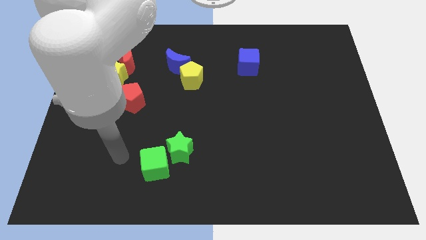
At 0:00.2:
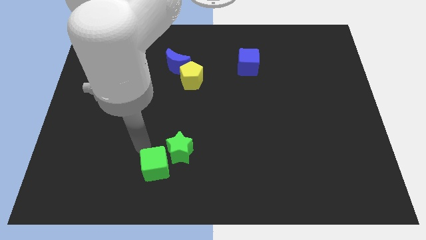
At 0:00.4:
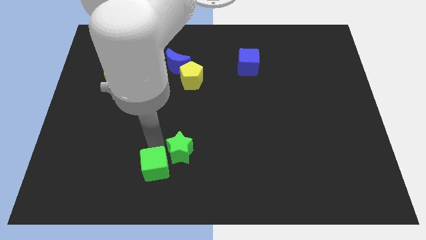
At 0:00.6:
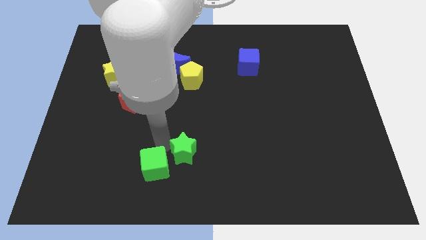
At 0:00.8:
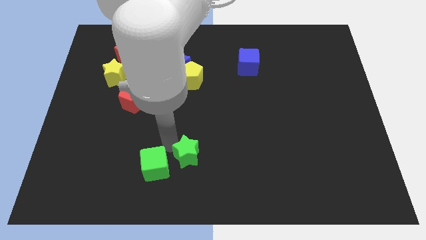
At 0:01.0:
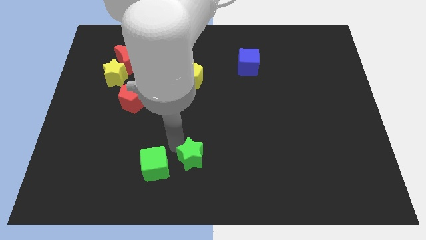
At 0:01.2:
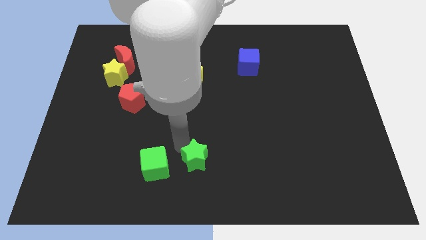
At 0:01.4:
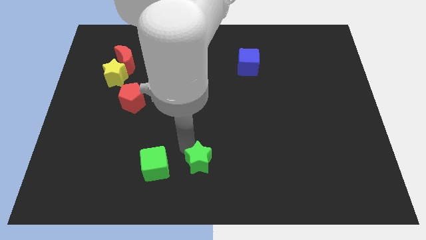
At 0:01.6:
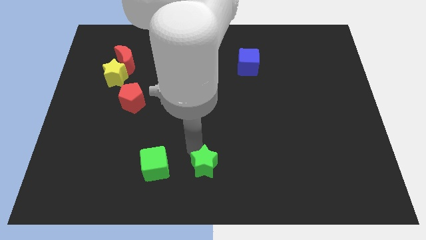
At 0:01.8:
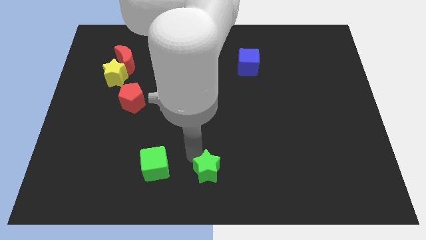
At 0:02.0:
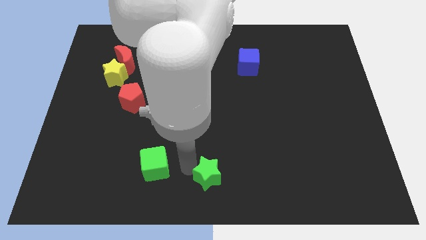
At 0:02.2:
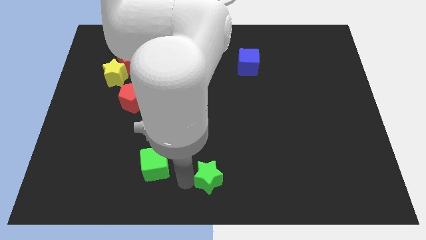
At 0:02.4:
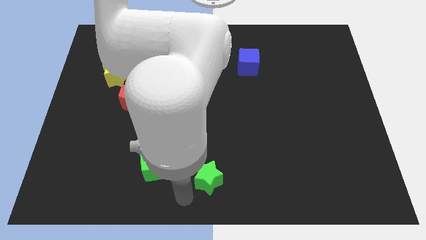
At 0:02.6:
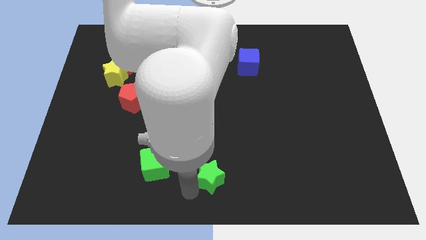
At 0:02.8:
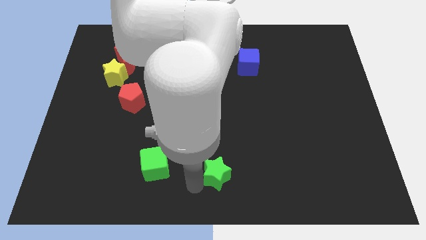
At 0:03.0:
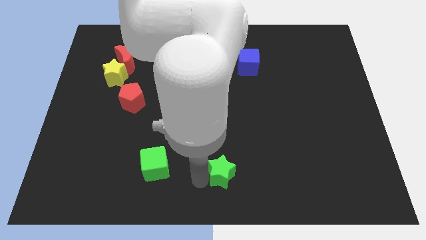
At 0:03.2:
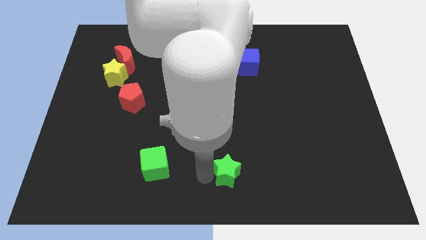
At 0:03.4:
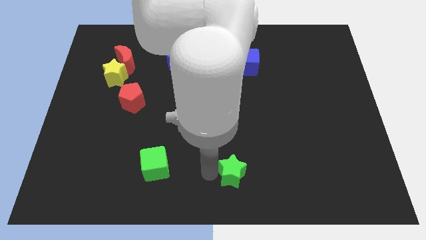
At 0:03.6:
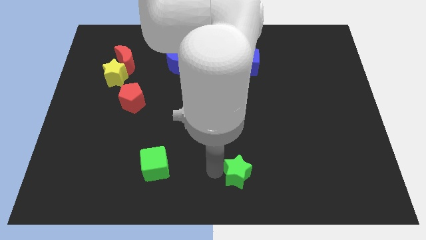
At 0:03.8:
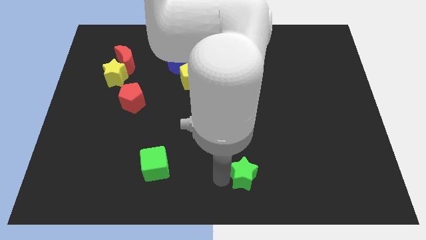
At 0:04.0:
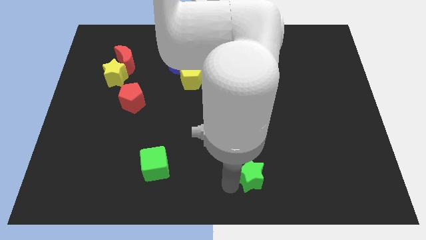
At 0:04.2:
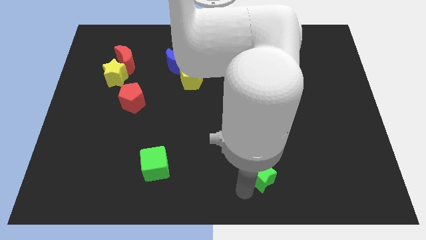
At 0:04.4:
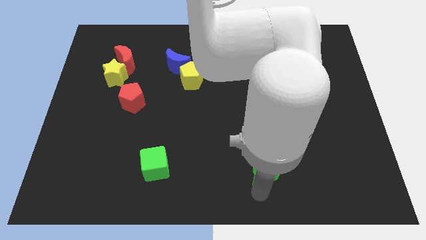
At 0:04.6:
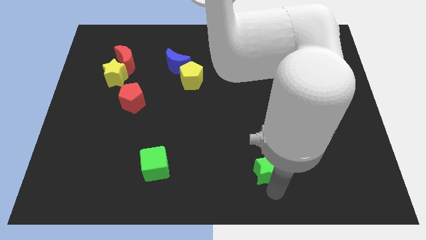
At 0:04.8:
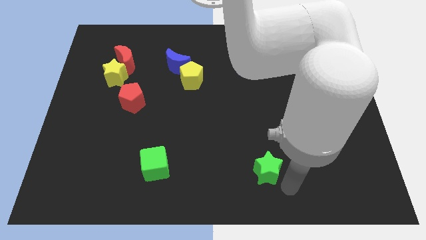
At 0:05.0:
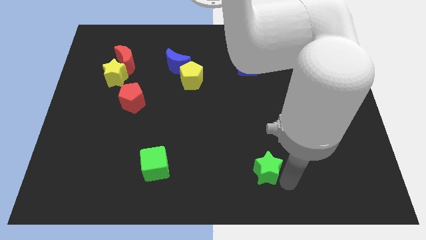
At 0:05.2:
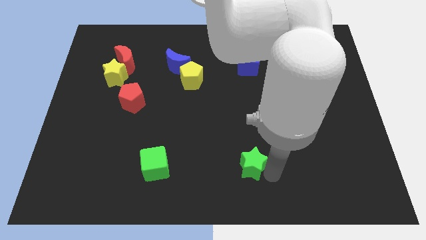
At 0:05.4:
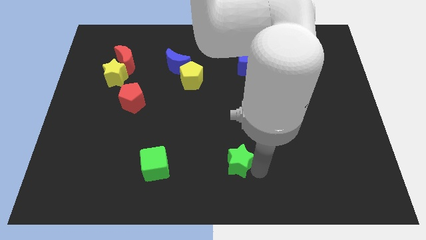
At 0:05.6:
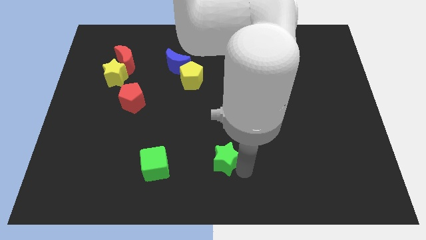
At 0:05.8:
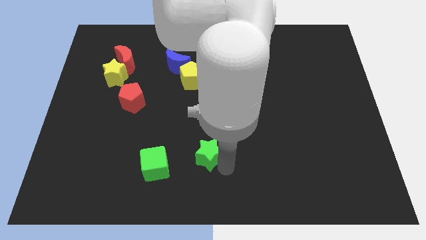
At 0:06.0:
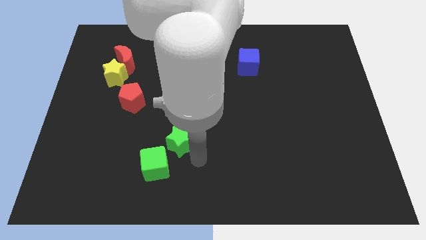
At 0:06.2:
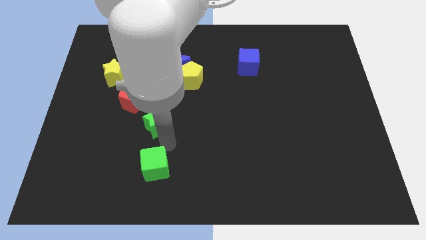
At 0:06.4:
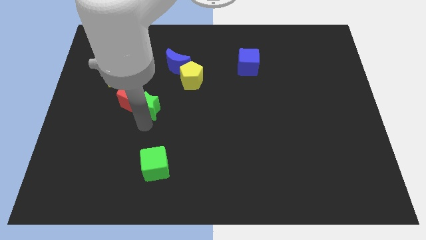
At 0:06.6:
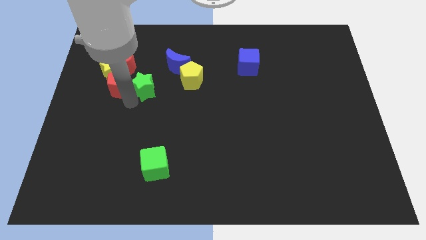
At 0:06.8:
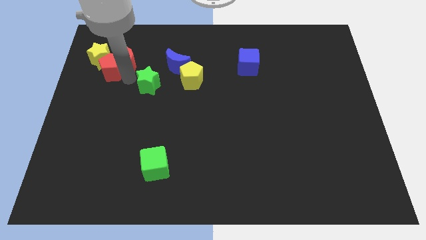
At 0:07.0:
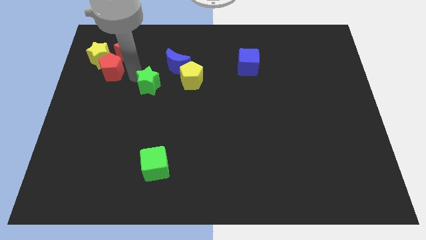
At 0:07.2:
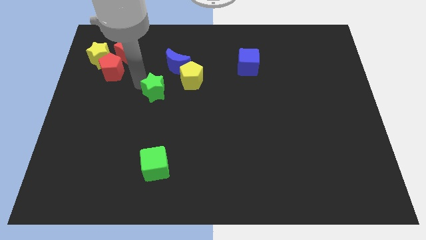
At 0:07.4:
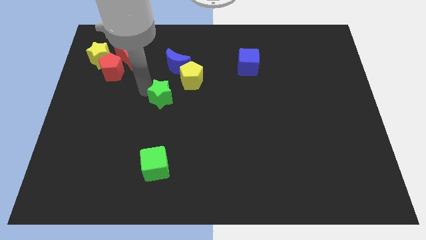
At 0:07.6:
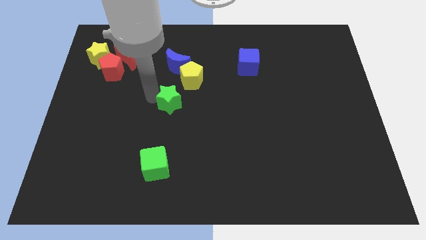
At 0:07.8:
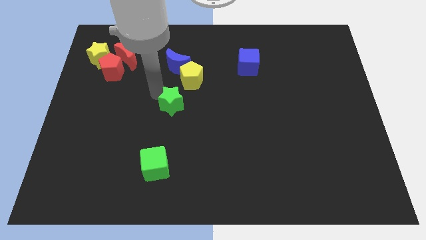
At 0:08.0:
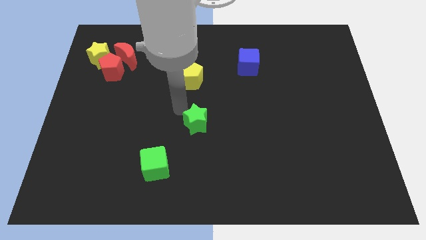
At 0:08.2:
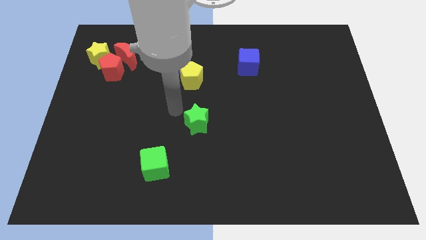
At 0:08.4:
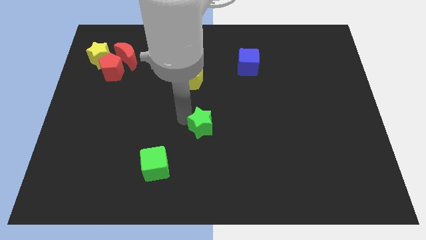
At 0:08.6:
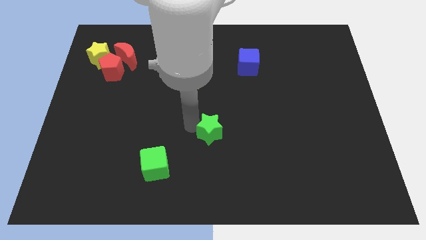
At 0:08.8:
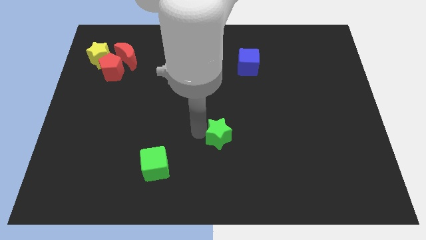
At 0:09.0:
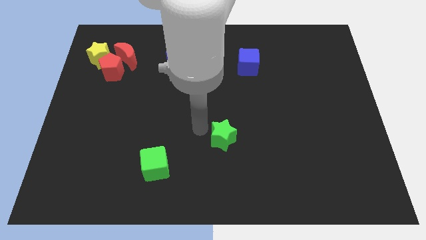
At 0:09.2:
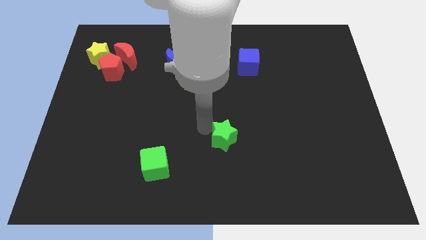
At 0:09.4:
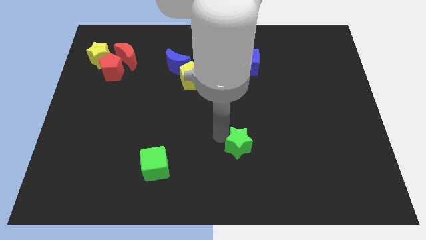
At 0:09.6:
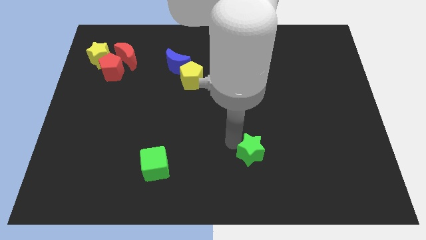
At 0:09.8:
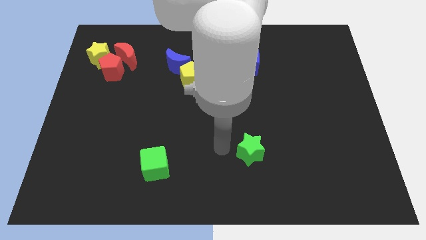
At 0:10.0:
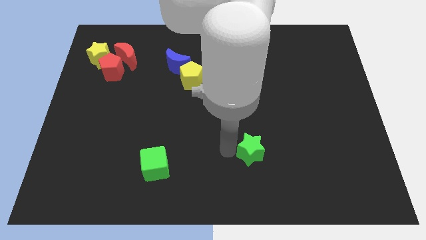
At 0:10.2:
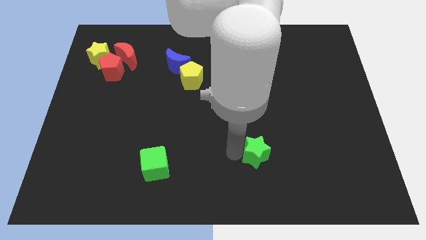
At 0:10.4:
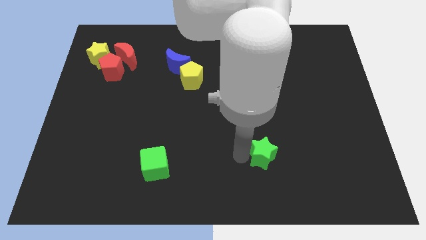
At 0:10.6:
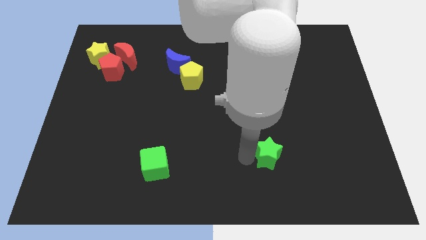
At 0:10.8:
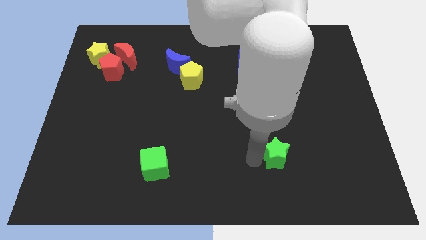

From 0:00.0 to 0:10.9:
slide the green star right

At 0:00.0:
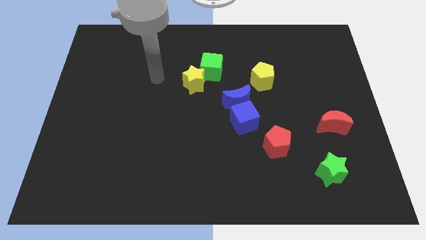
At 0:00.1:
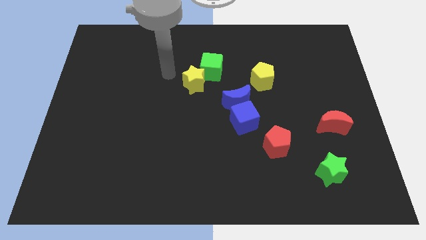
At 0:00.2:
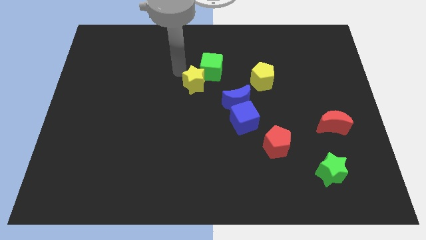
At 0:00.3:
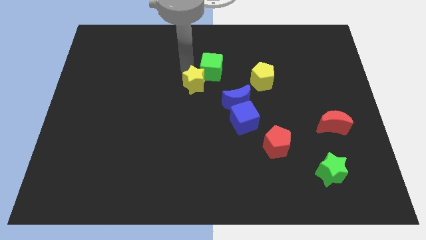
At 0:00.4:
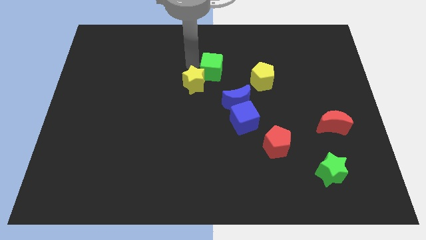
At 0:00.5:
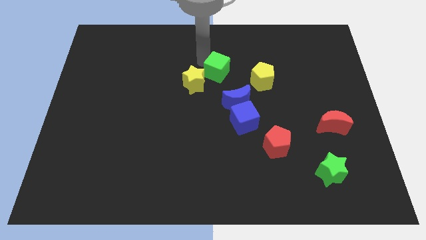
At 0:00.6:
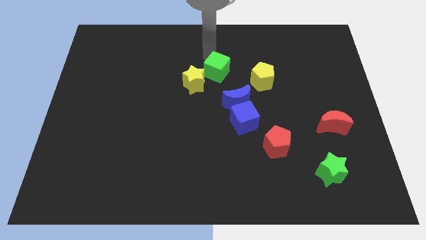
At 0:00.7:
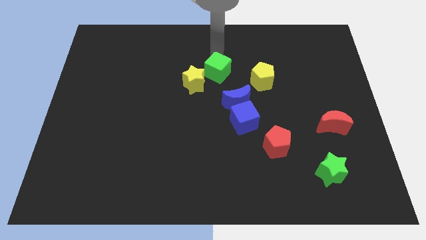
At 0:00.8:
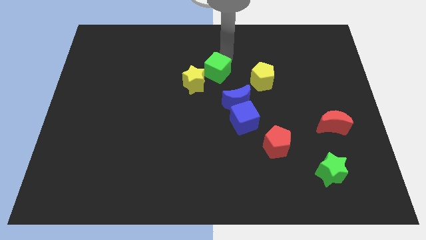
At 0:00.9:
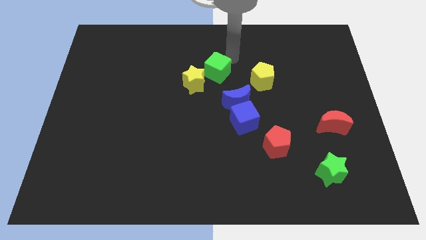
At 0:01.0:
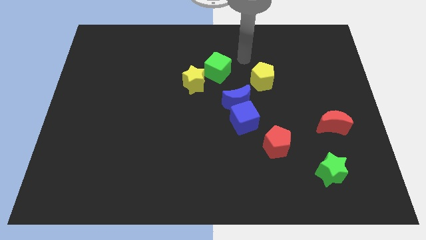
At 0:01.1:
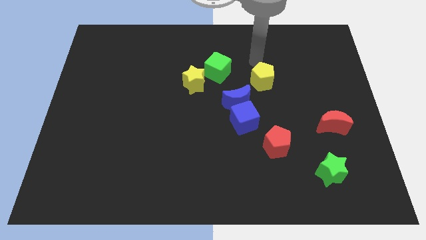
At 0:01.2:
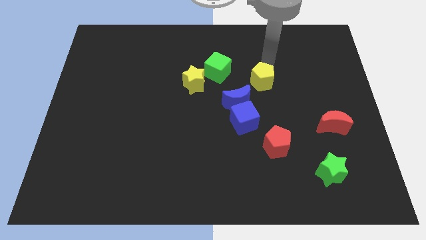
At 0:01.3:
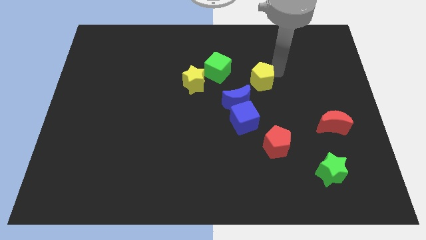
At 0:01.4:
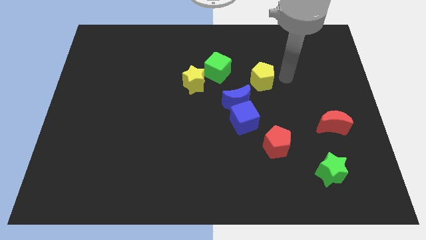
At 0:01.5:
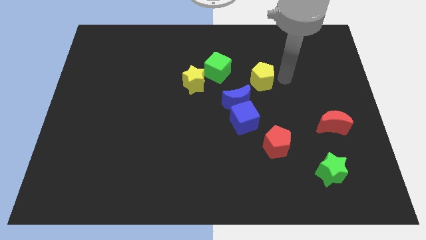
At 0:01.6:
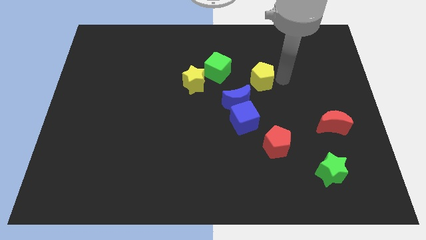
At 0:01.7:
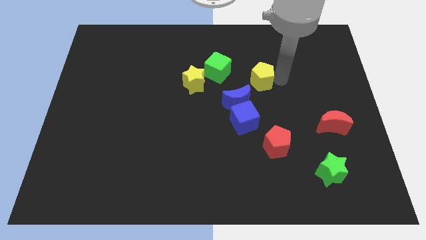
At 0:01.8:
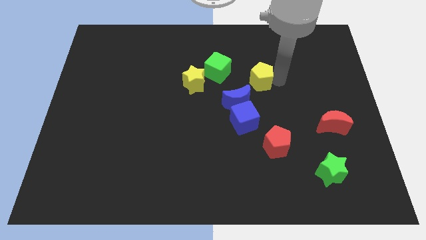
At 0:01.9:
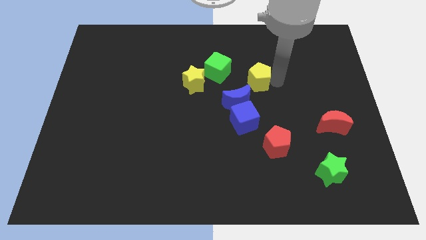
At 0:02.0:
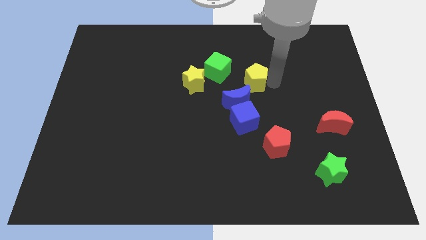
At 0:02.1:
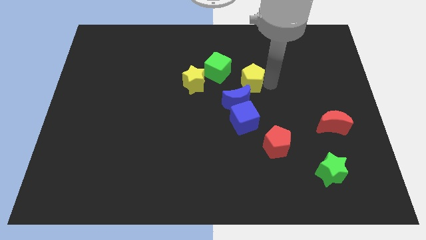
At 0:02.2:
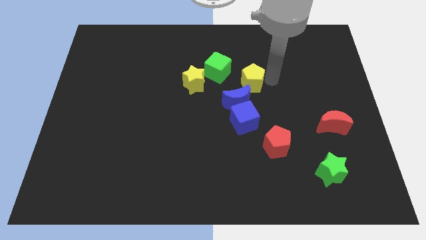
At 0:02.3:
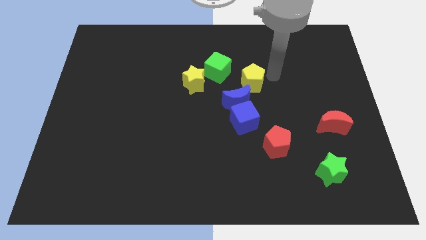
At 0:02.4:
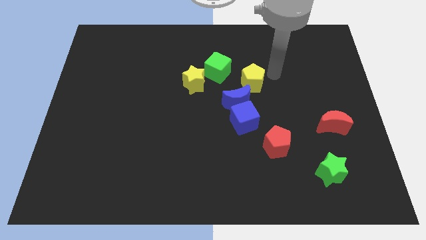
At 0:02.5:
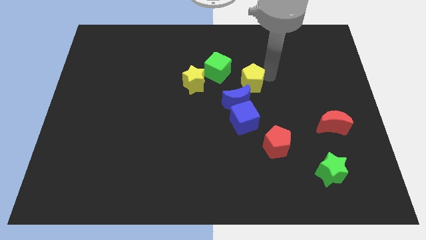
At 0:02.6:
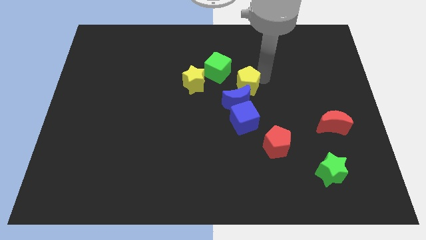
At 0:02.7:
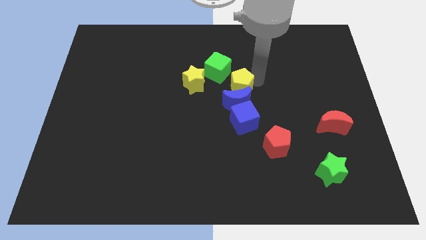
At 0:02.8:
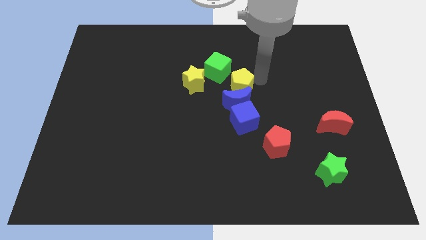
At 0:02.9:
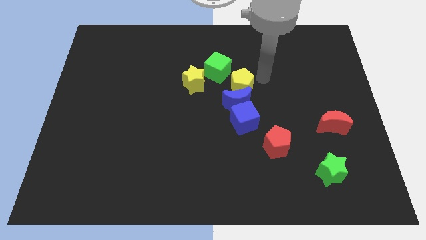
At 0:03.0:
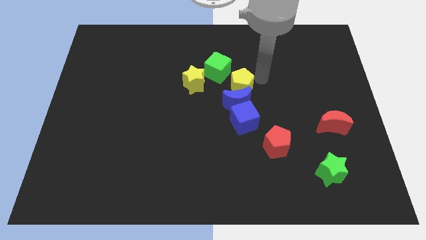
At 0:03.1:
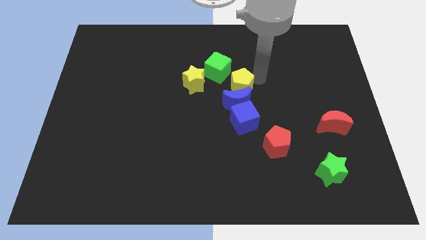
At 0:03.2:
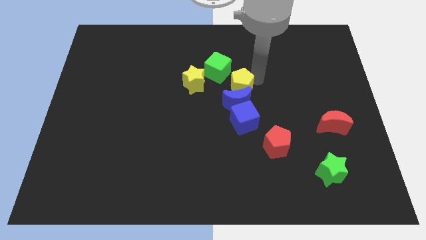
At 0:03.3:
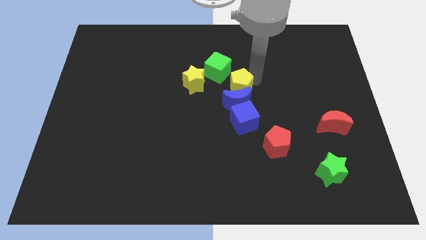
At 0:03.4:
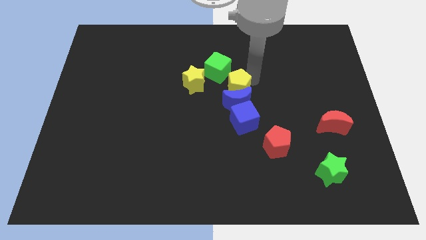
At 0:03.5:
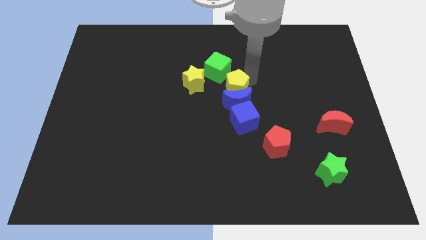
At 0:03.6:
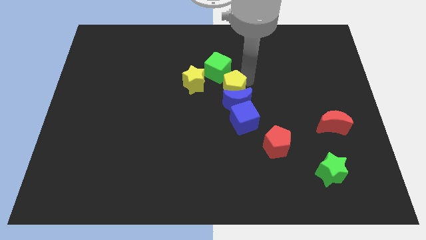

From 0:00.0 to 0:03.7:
move the yellow pentagon a little down and left
